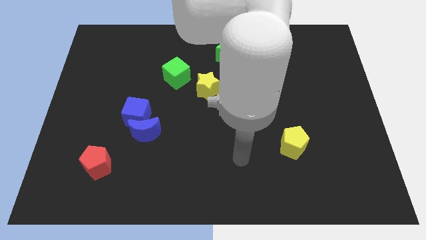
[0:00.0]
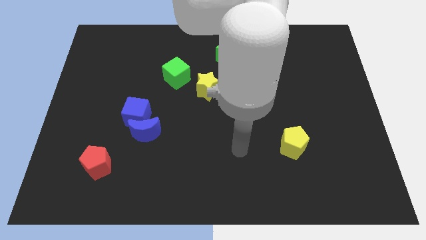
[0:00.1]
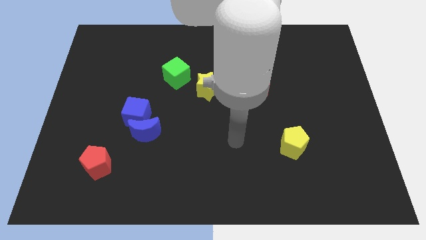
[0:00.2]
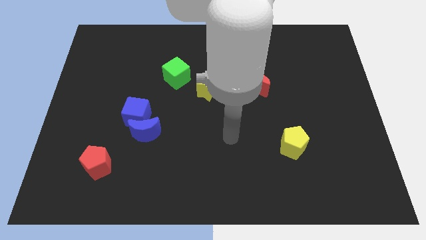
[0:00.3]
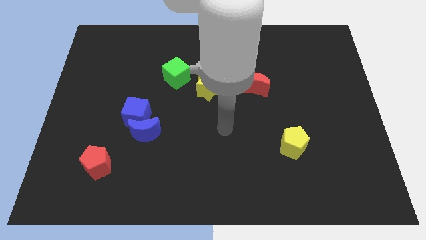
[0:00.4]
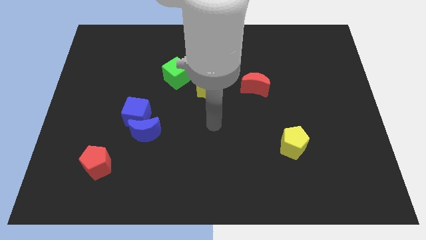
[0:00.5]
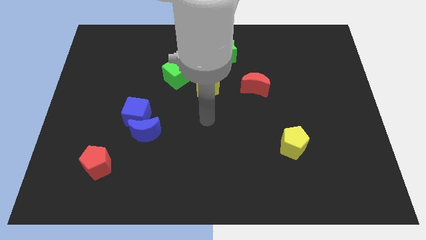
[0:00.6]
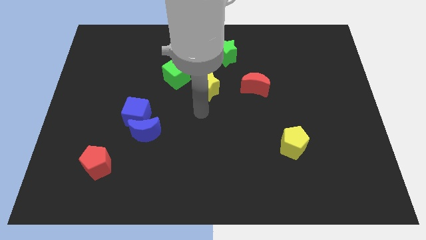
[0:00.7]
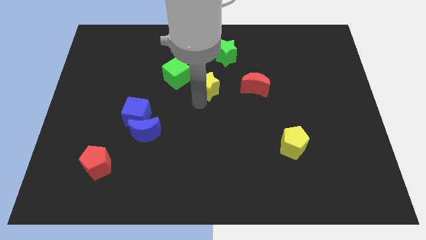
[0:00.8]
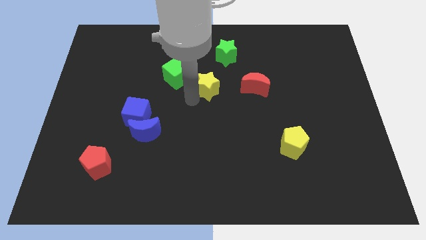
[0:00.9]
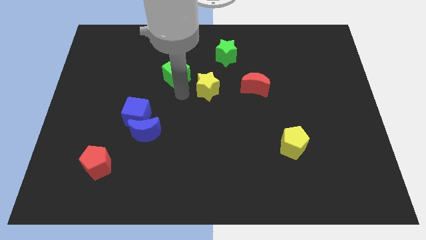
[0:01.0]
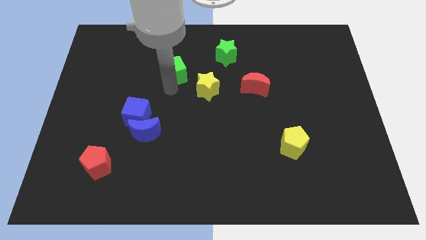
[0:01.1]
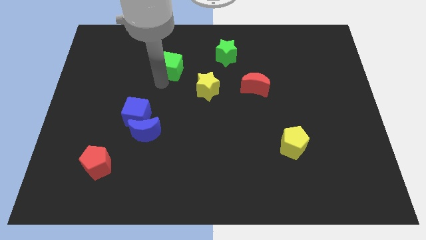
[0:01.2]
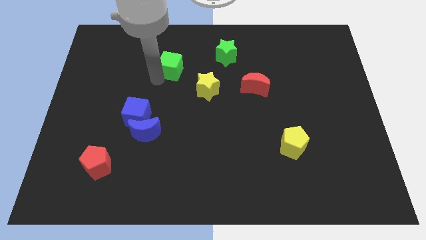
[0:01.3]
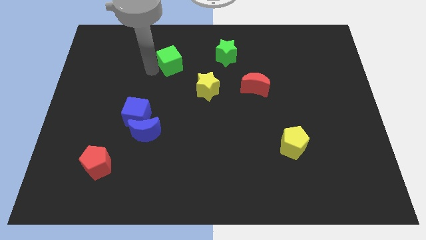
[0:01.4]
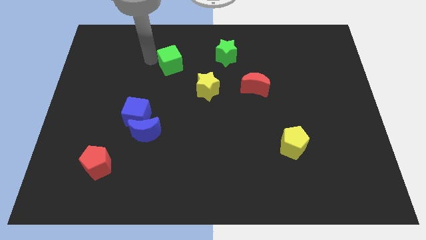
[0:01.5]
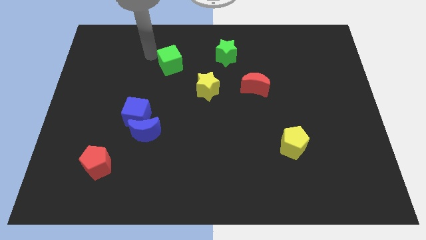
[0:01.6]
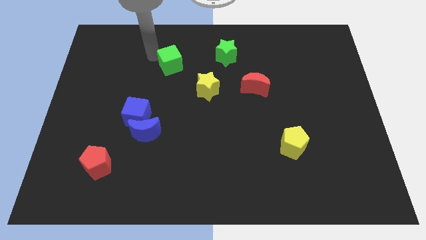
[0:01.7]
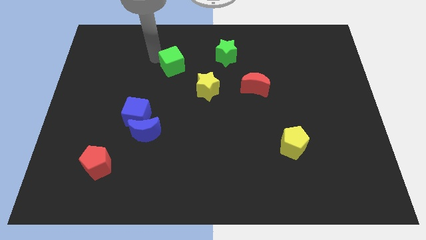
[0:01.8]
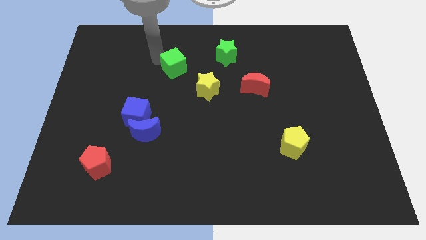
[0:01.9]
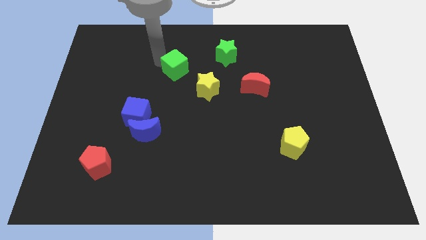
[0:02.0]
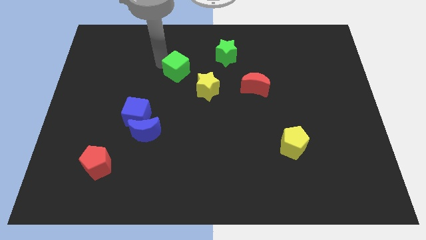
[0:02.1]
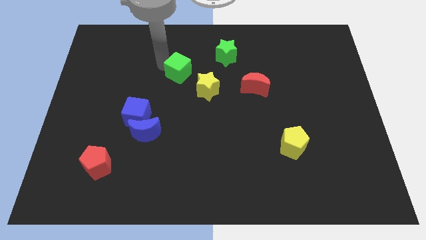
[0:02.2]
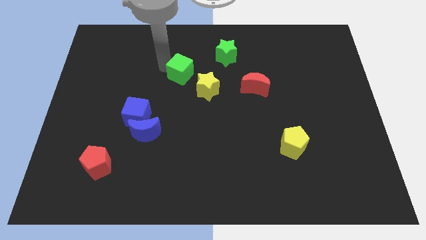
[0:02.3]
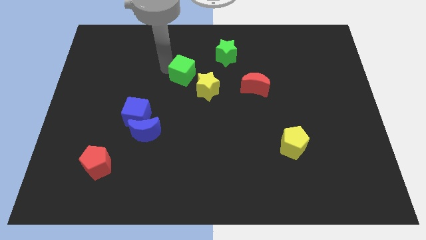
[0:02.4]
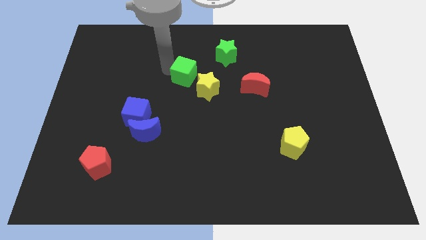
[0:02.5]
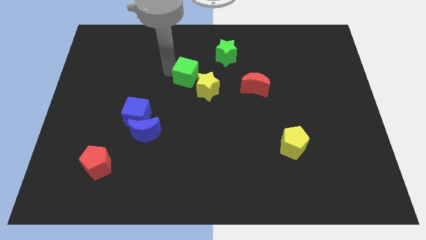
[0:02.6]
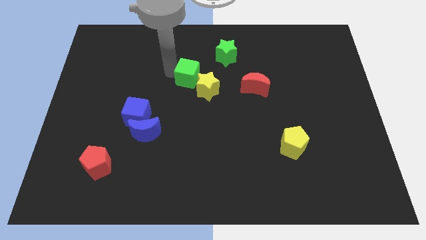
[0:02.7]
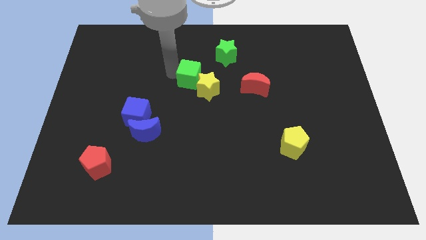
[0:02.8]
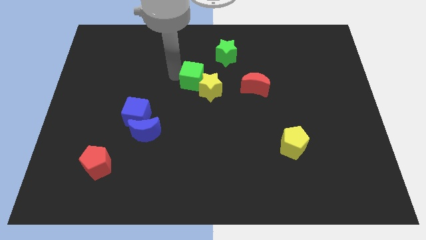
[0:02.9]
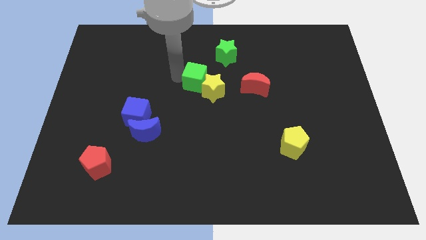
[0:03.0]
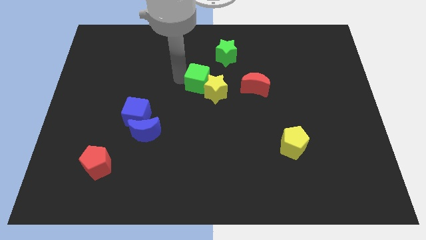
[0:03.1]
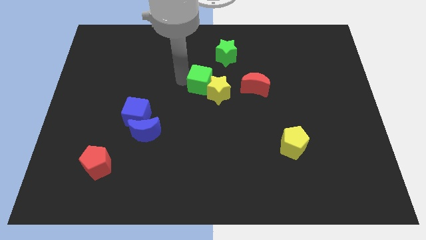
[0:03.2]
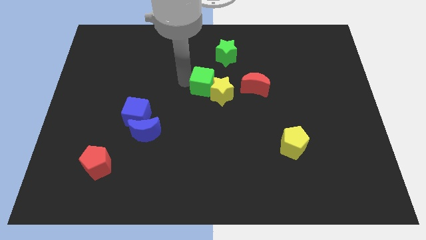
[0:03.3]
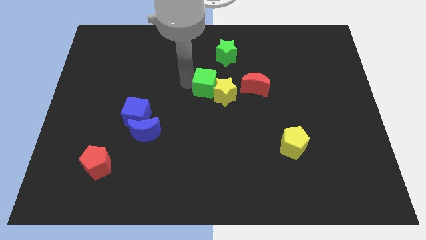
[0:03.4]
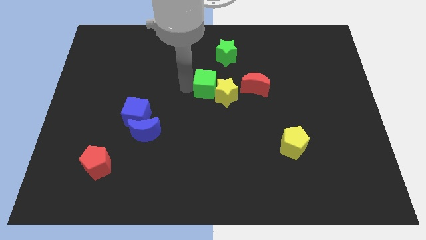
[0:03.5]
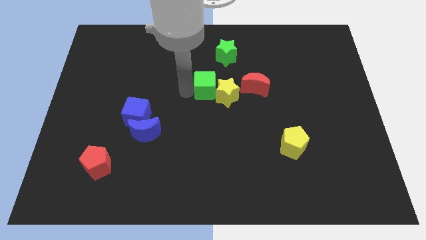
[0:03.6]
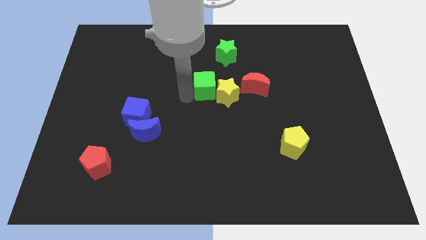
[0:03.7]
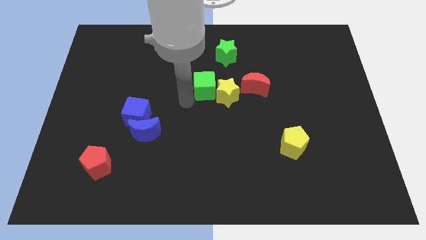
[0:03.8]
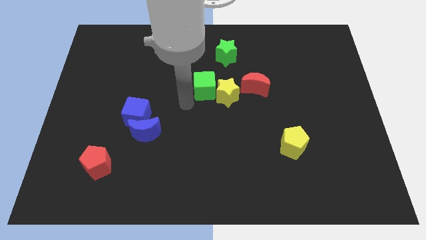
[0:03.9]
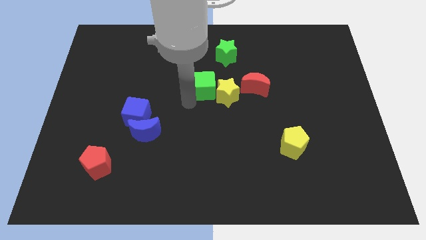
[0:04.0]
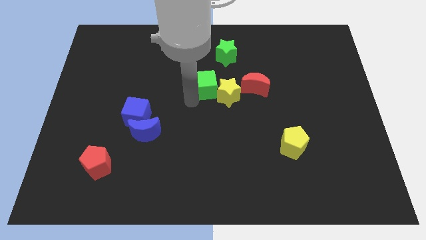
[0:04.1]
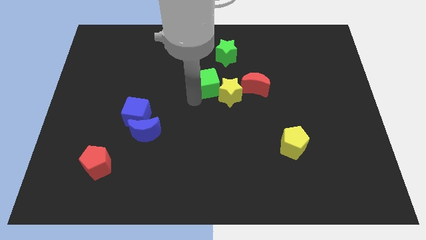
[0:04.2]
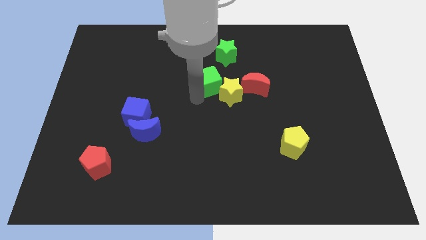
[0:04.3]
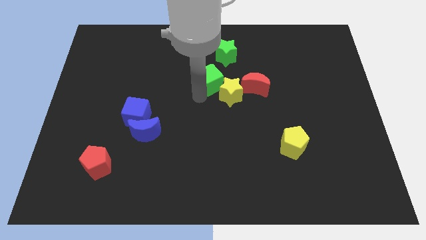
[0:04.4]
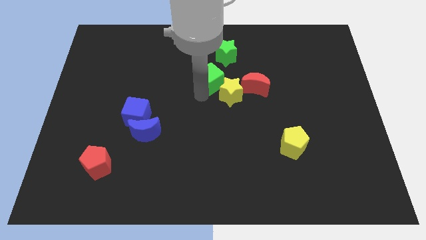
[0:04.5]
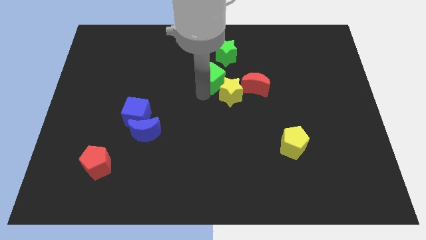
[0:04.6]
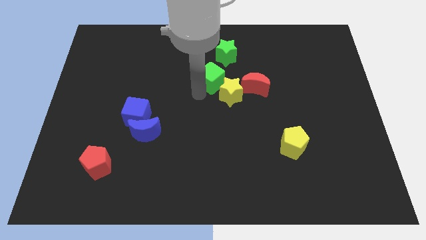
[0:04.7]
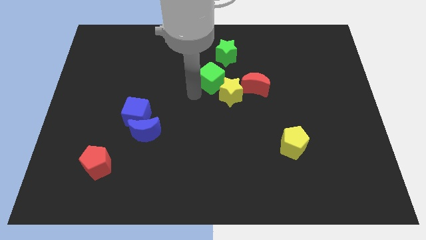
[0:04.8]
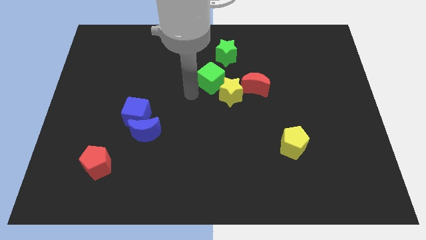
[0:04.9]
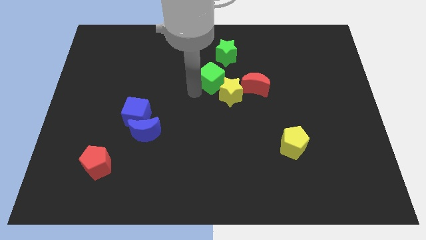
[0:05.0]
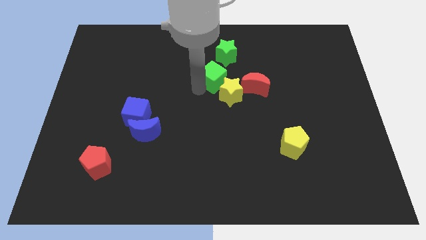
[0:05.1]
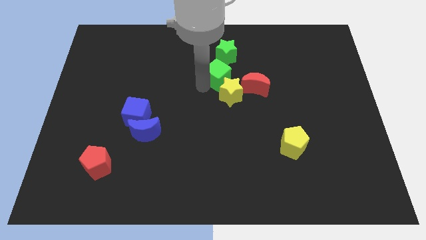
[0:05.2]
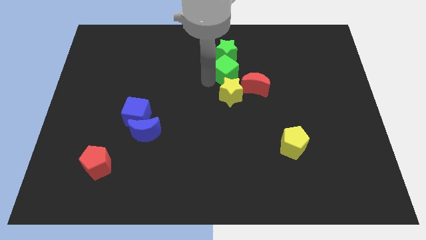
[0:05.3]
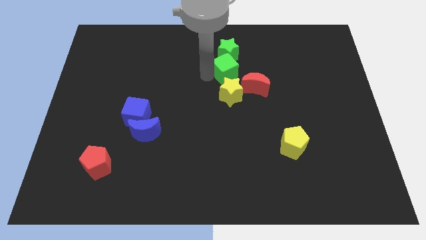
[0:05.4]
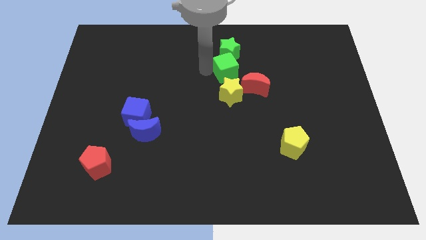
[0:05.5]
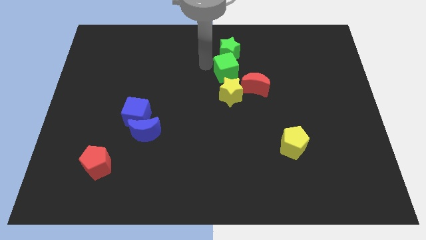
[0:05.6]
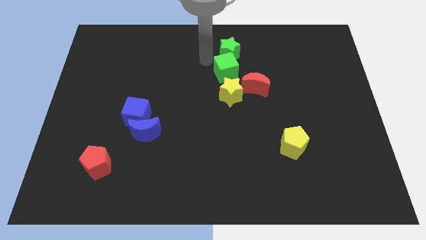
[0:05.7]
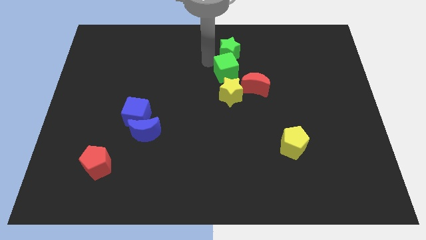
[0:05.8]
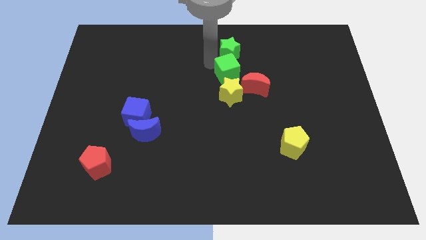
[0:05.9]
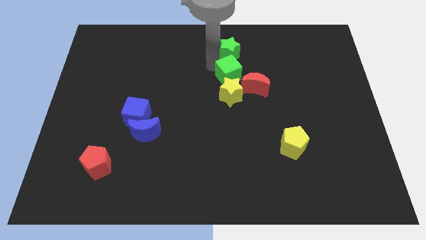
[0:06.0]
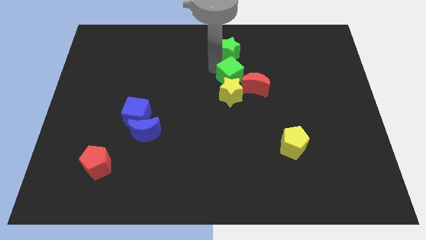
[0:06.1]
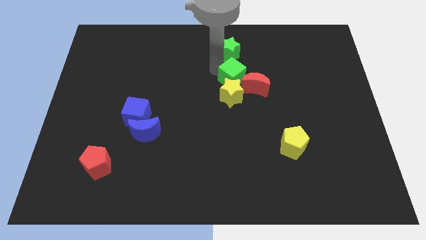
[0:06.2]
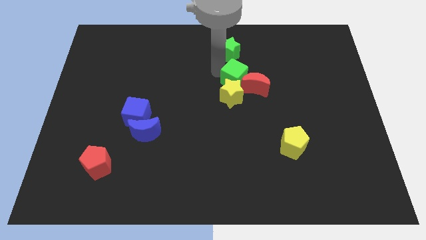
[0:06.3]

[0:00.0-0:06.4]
put the green cube next to the red moon

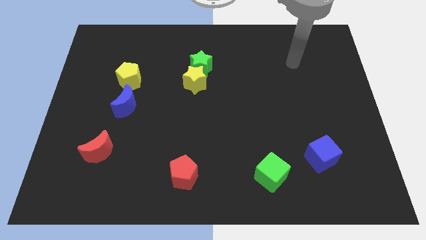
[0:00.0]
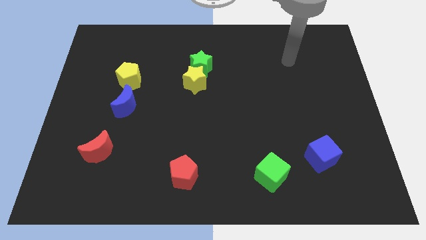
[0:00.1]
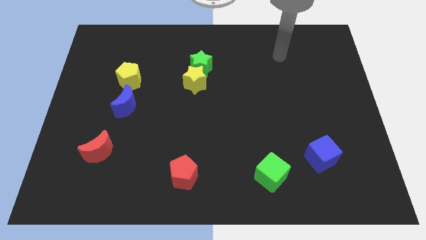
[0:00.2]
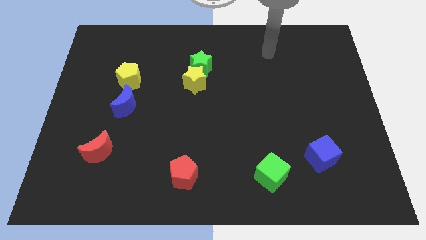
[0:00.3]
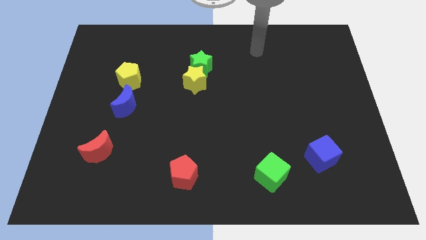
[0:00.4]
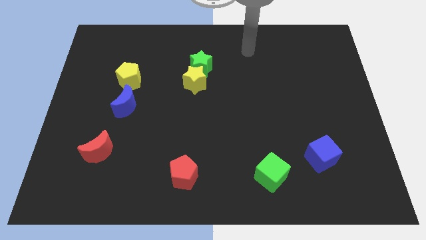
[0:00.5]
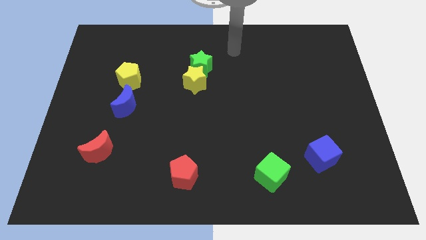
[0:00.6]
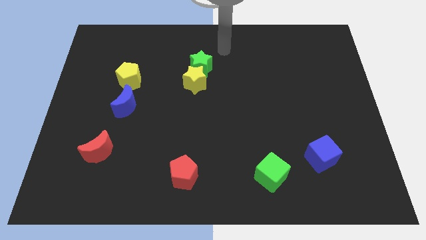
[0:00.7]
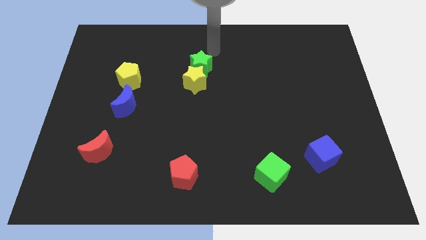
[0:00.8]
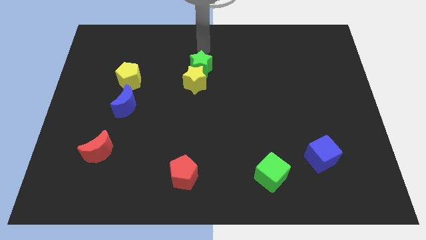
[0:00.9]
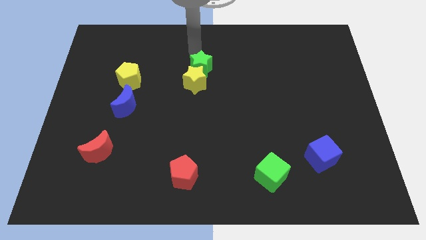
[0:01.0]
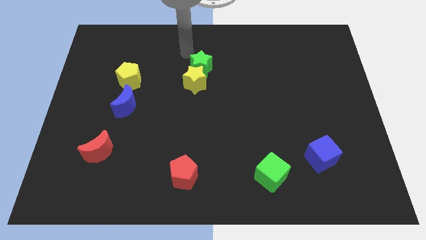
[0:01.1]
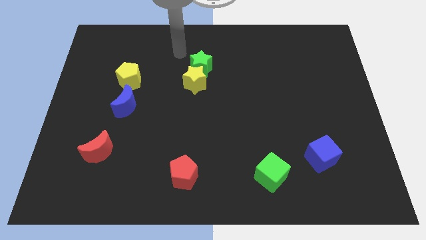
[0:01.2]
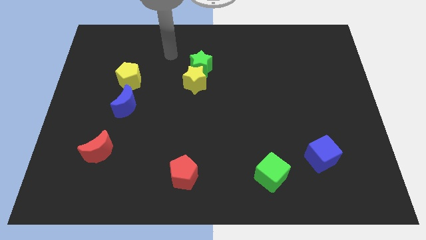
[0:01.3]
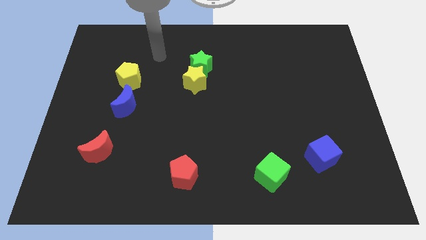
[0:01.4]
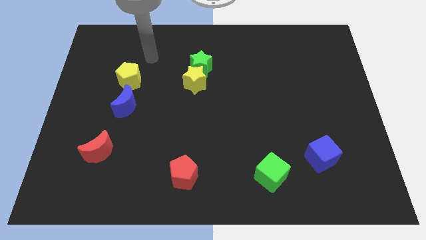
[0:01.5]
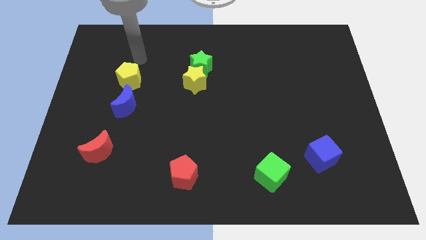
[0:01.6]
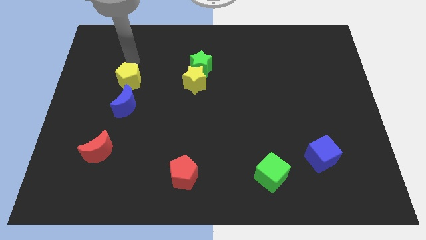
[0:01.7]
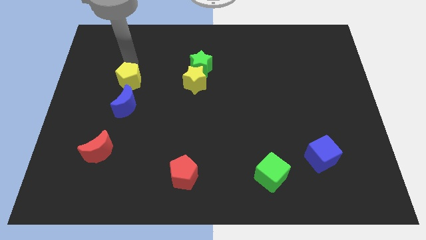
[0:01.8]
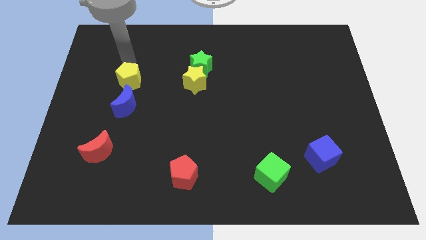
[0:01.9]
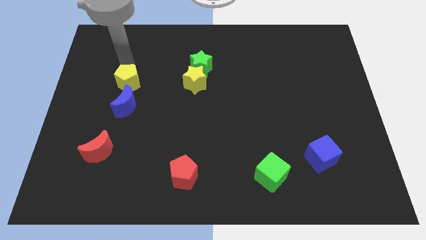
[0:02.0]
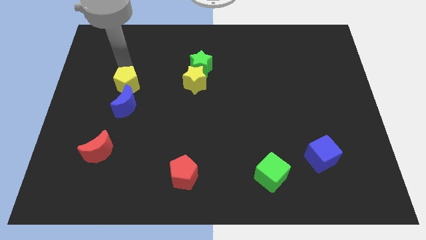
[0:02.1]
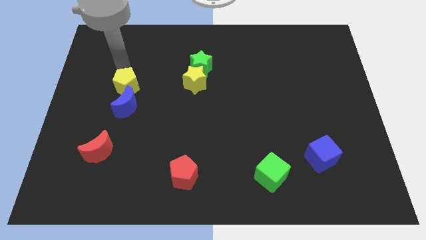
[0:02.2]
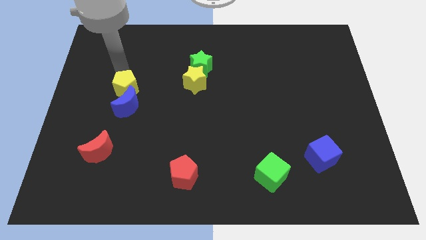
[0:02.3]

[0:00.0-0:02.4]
slide the yellow pentagon to the blue moon
